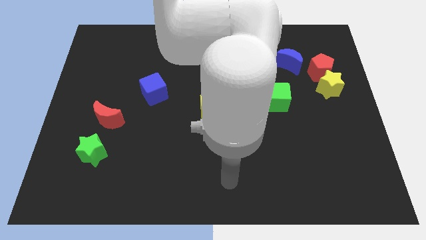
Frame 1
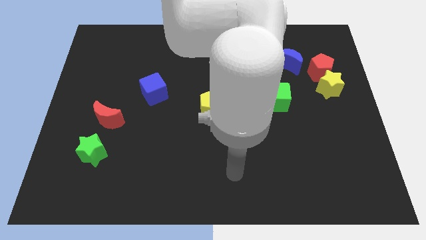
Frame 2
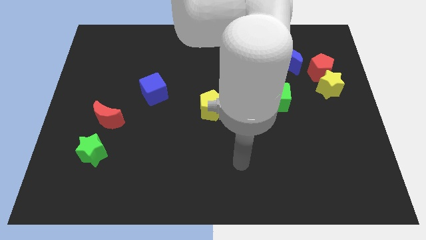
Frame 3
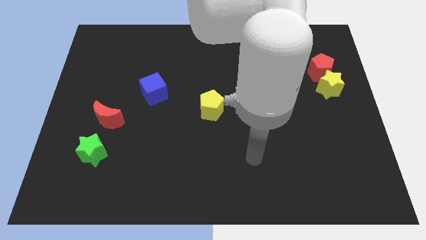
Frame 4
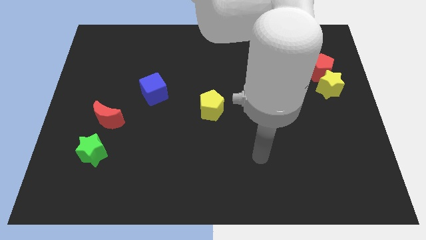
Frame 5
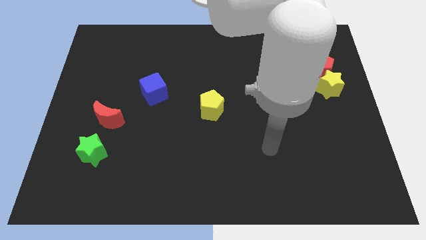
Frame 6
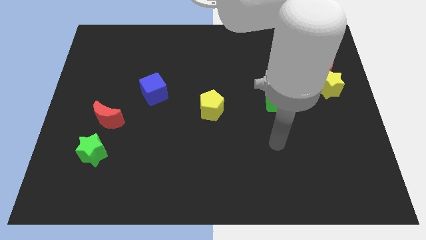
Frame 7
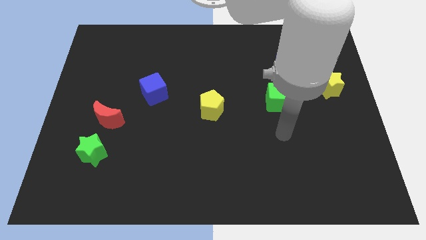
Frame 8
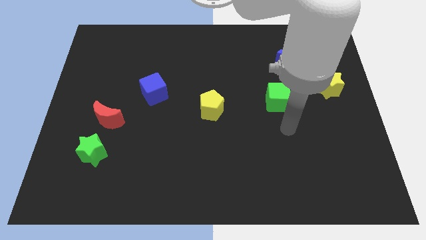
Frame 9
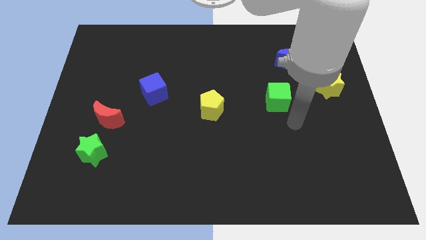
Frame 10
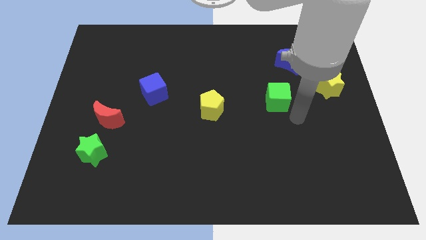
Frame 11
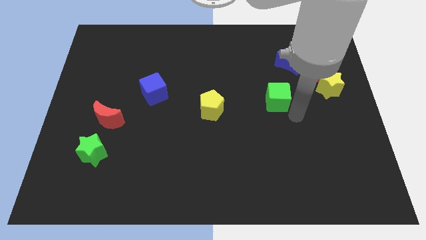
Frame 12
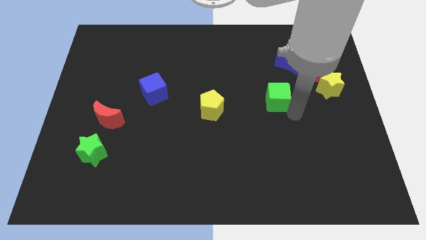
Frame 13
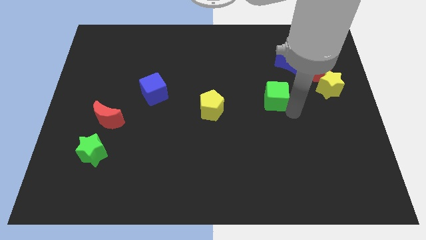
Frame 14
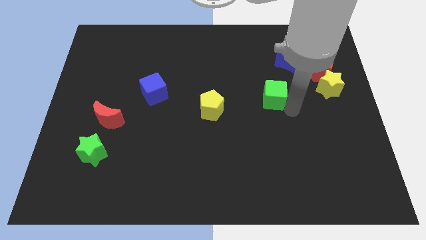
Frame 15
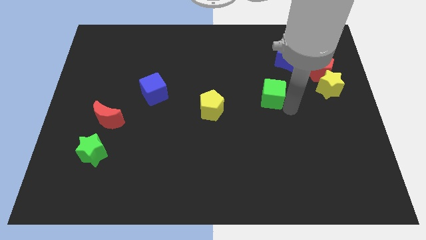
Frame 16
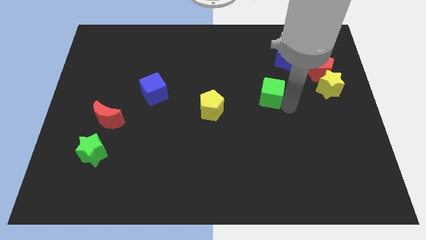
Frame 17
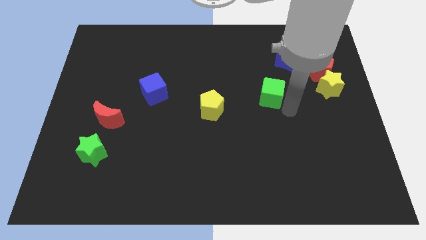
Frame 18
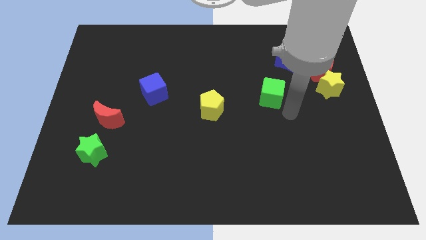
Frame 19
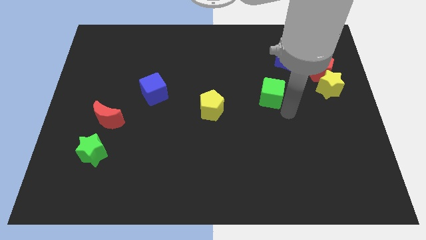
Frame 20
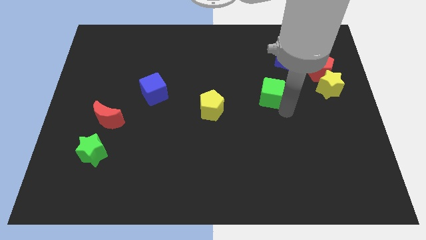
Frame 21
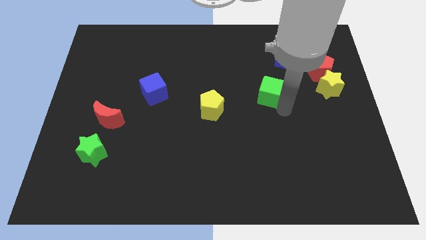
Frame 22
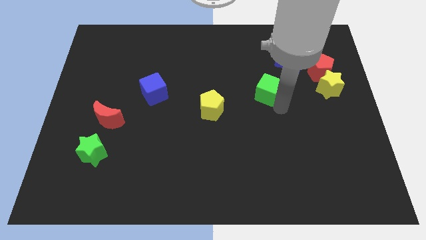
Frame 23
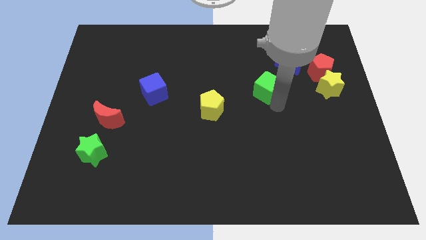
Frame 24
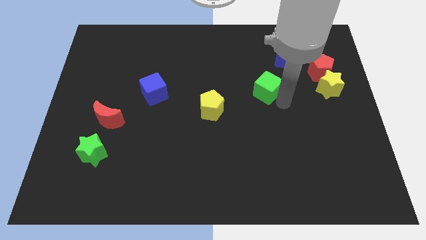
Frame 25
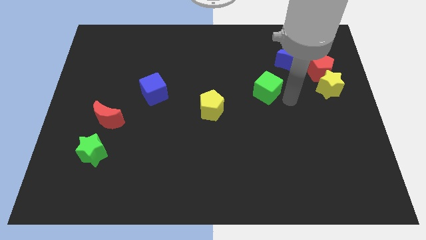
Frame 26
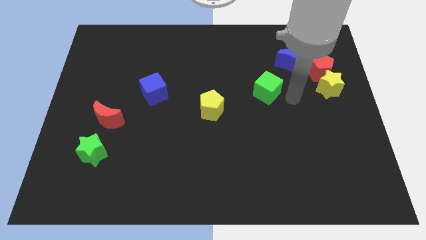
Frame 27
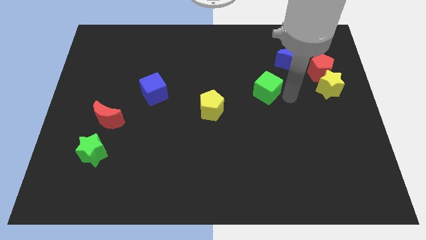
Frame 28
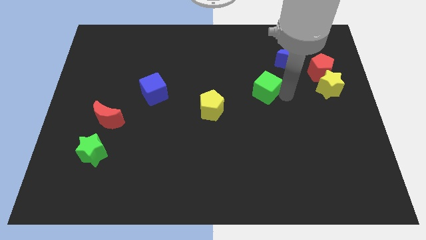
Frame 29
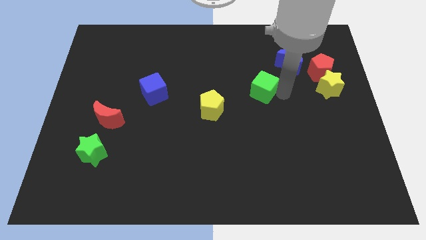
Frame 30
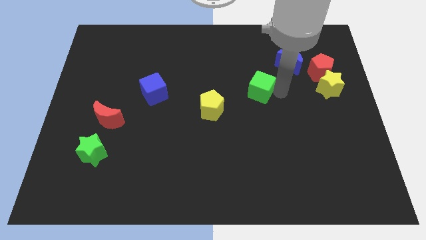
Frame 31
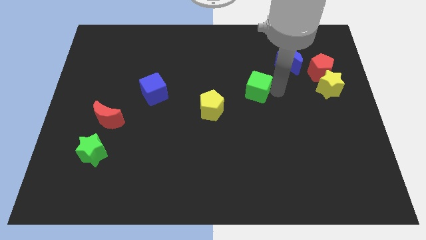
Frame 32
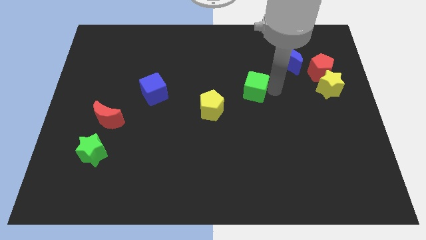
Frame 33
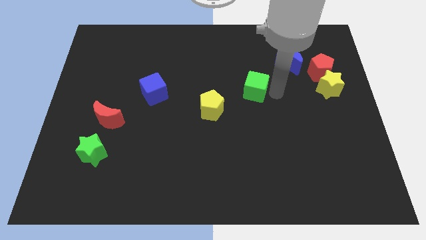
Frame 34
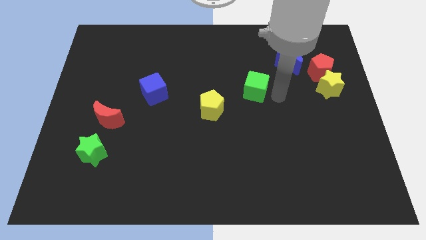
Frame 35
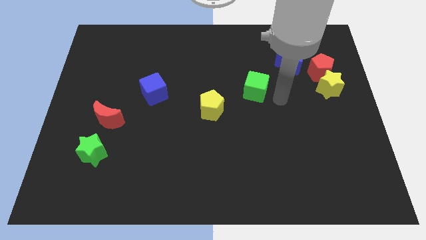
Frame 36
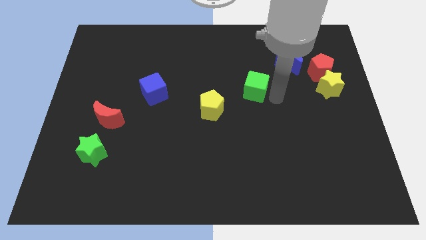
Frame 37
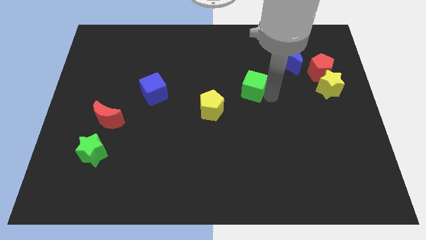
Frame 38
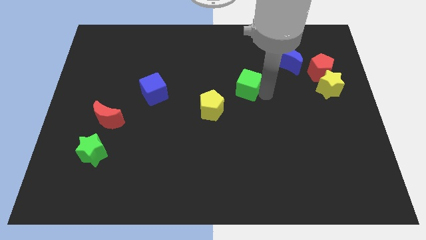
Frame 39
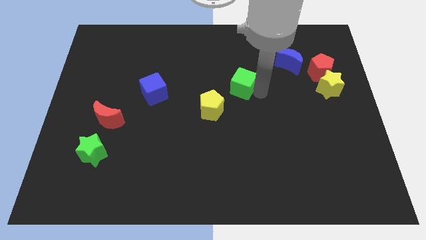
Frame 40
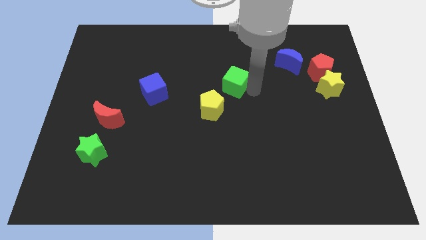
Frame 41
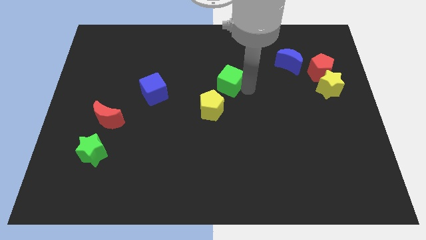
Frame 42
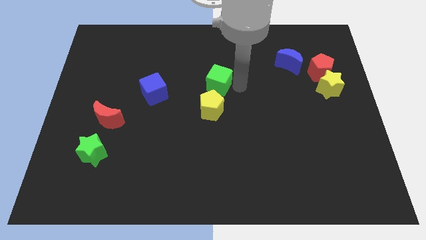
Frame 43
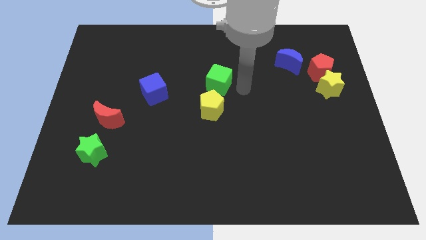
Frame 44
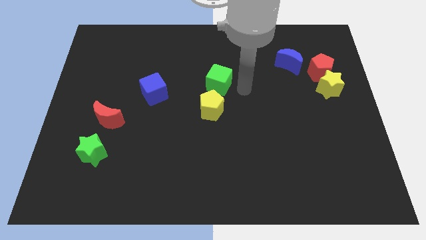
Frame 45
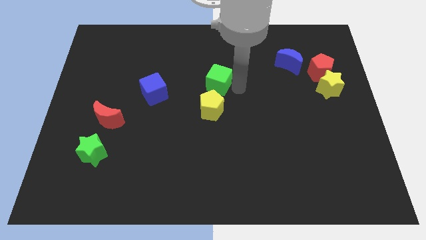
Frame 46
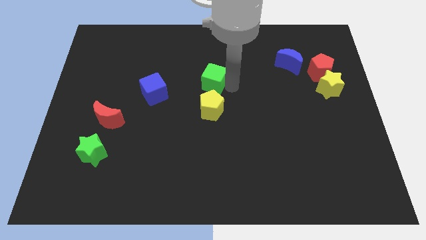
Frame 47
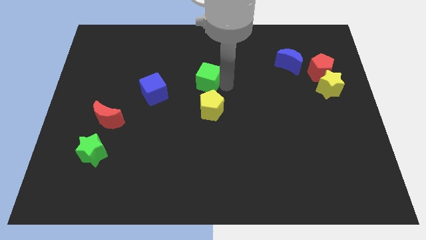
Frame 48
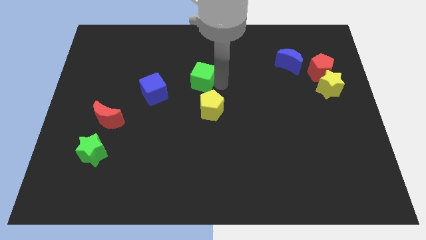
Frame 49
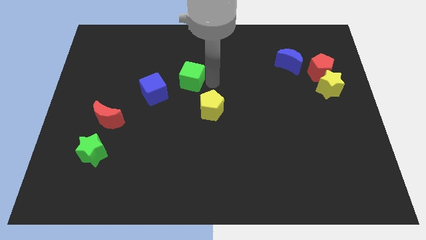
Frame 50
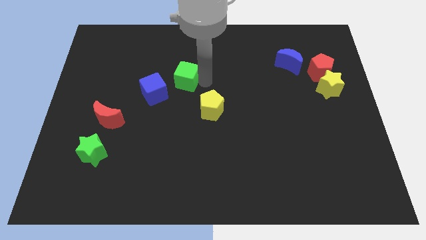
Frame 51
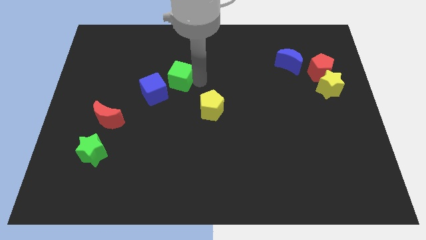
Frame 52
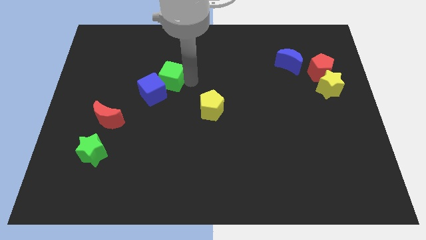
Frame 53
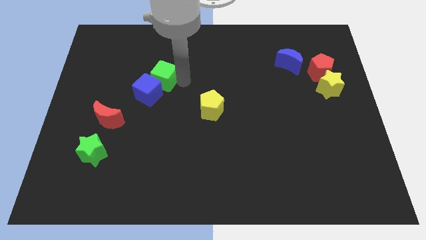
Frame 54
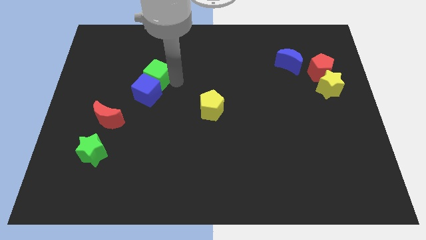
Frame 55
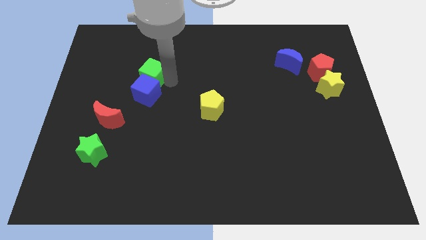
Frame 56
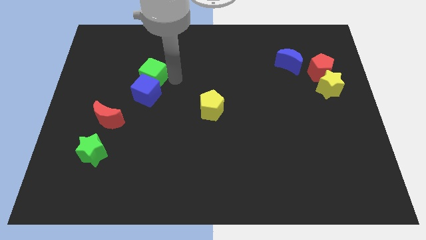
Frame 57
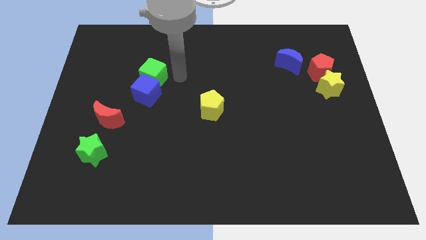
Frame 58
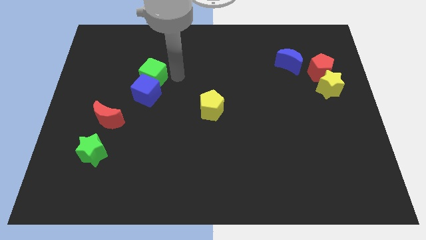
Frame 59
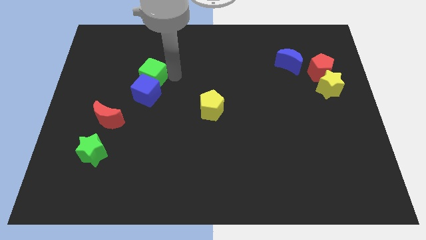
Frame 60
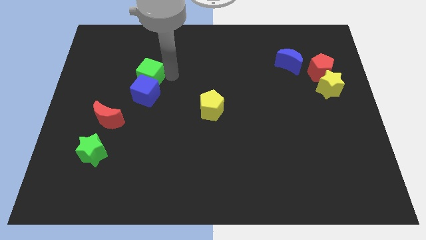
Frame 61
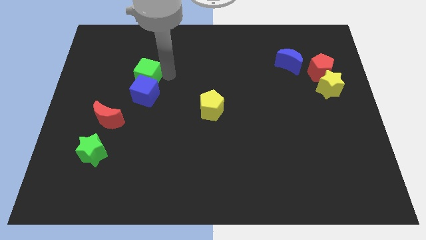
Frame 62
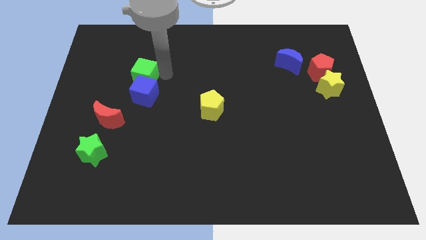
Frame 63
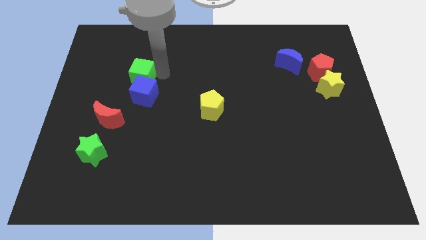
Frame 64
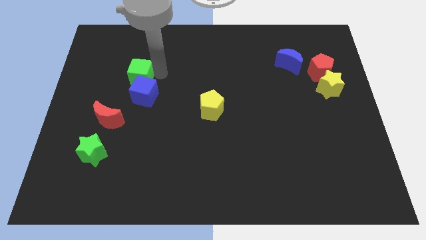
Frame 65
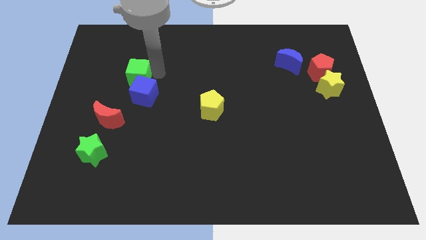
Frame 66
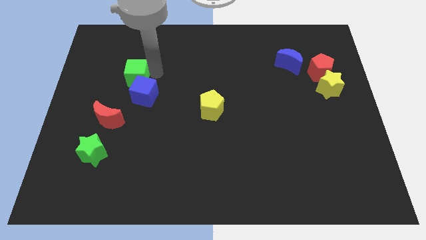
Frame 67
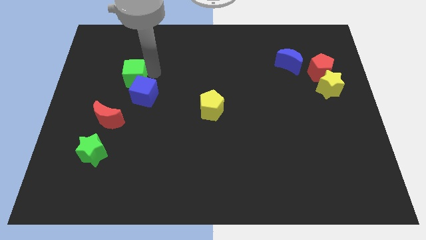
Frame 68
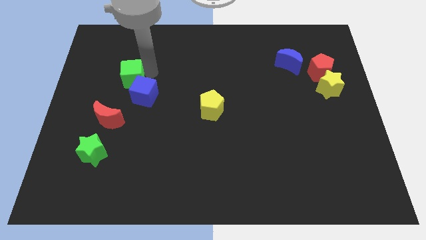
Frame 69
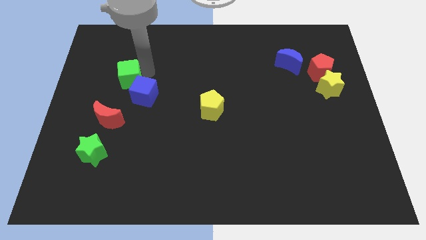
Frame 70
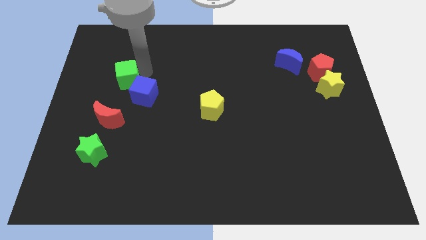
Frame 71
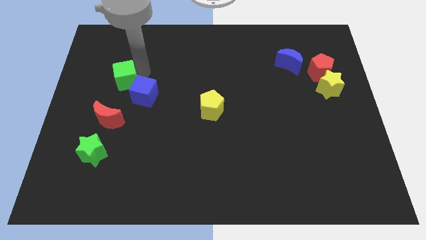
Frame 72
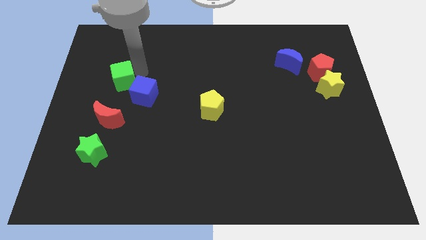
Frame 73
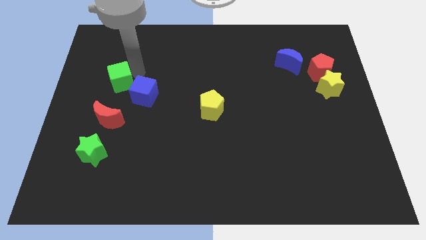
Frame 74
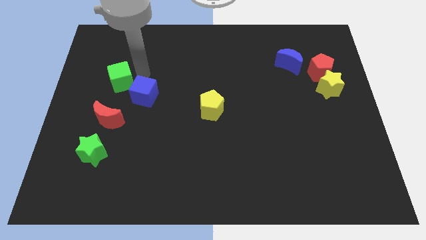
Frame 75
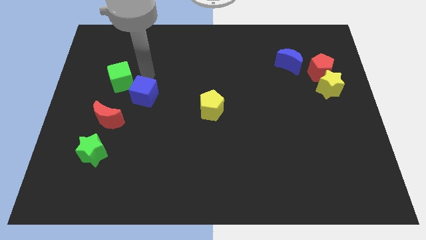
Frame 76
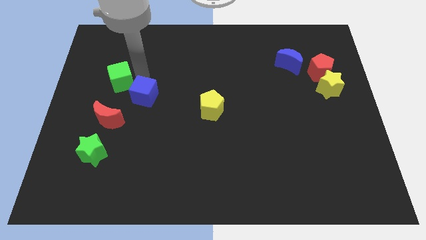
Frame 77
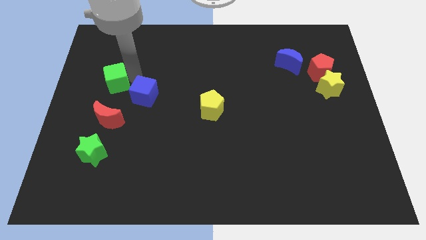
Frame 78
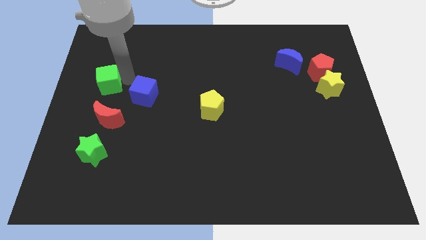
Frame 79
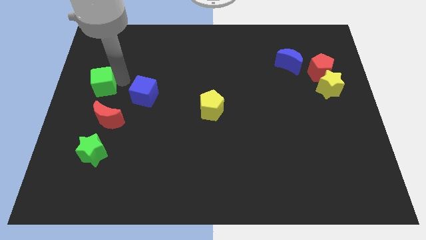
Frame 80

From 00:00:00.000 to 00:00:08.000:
move the green cube to the center left
